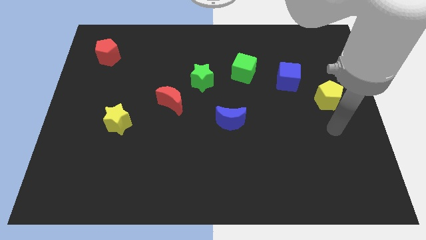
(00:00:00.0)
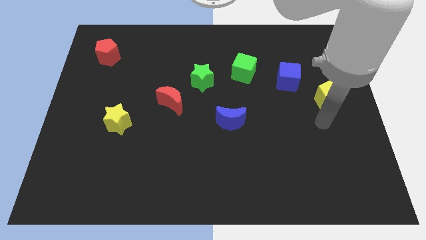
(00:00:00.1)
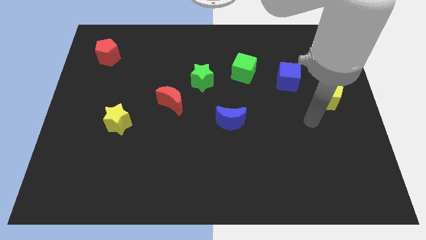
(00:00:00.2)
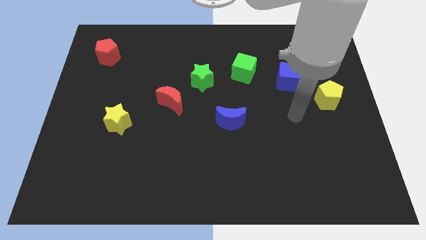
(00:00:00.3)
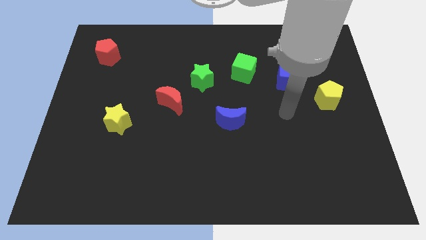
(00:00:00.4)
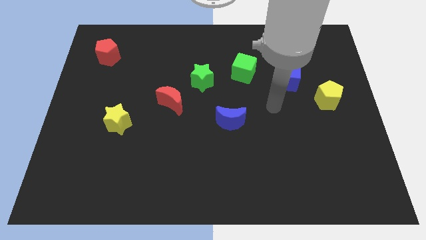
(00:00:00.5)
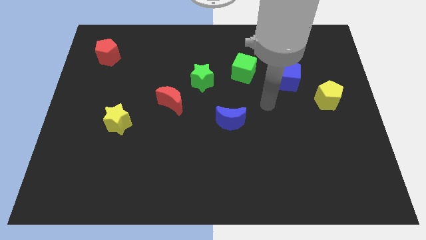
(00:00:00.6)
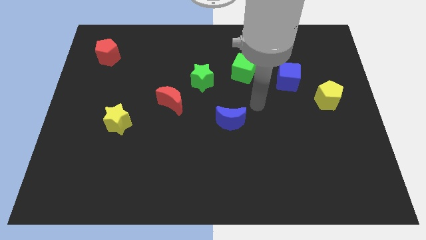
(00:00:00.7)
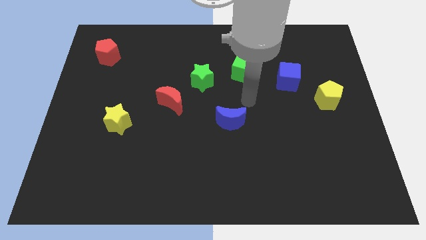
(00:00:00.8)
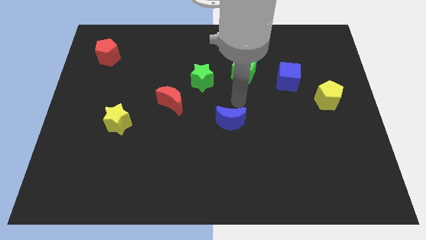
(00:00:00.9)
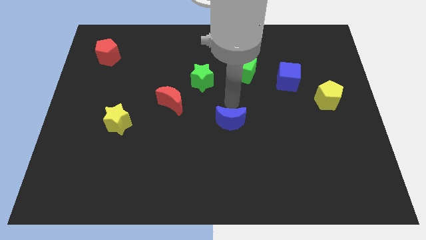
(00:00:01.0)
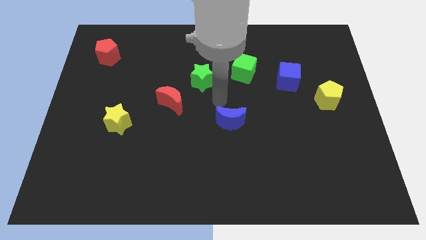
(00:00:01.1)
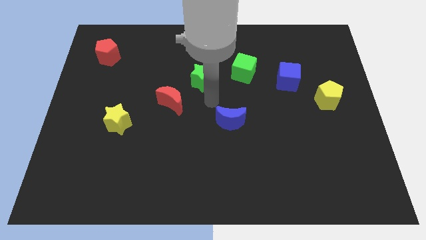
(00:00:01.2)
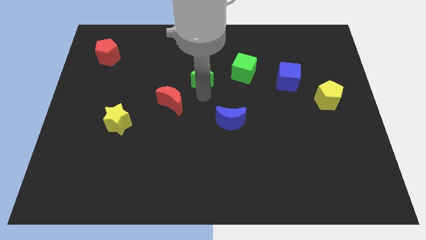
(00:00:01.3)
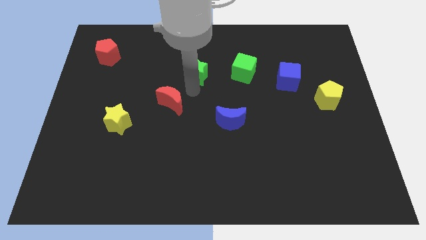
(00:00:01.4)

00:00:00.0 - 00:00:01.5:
separate the red moon from the green star

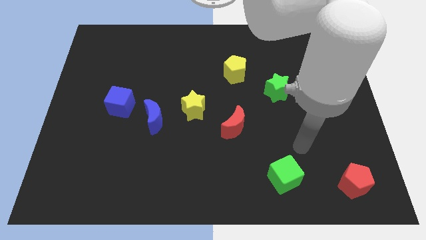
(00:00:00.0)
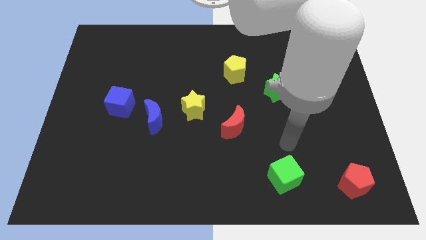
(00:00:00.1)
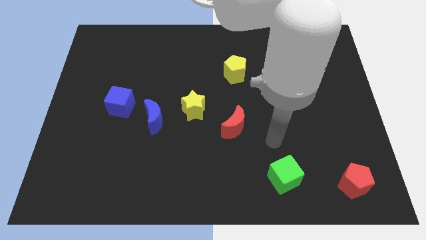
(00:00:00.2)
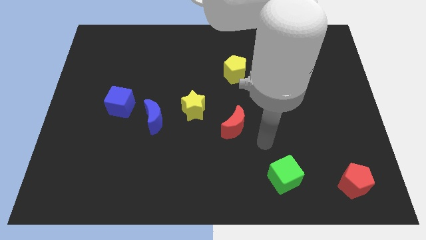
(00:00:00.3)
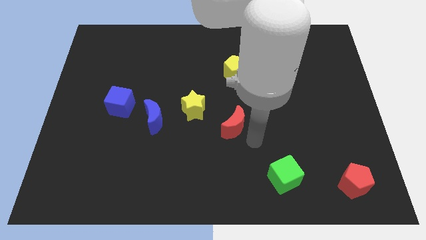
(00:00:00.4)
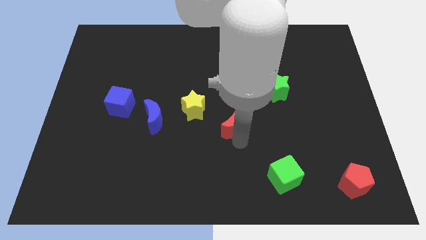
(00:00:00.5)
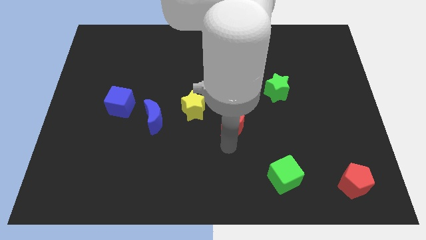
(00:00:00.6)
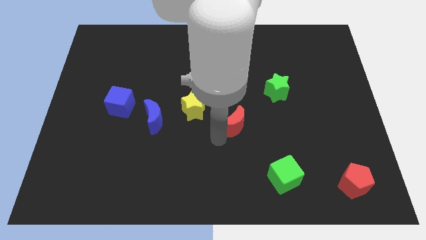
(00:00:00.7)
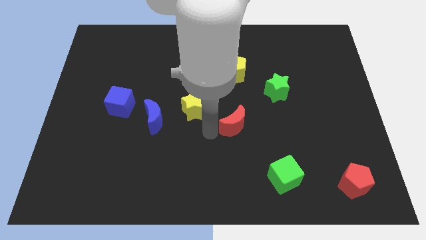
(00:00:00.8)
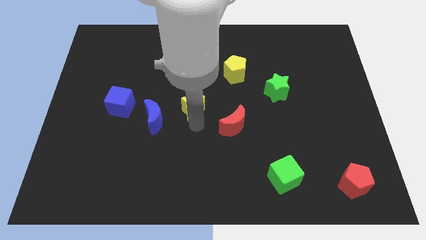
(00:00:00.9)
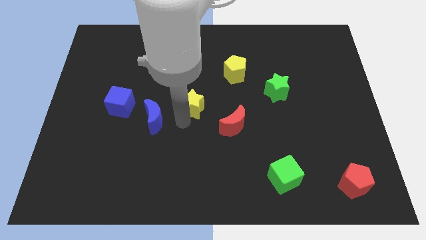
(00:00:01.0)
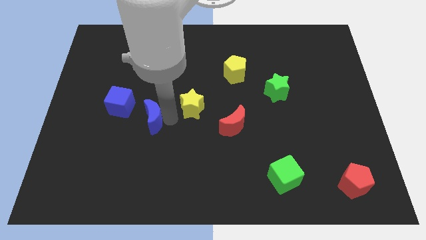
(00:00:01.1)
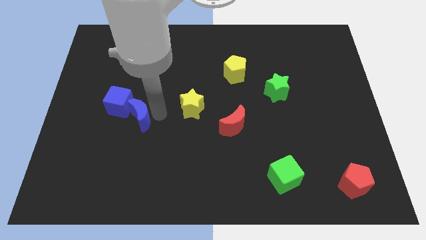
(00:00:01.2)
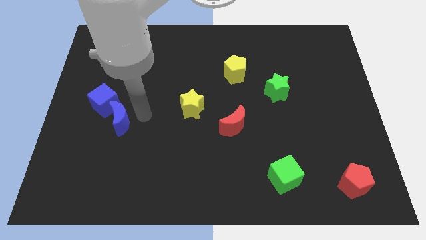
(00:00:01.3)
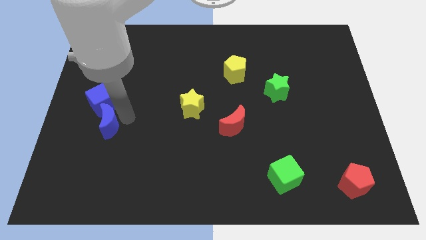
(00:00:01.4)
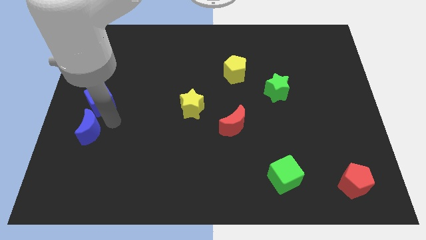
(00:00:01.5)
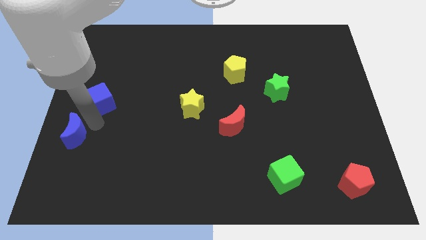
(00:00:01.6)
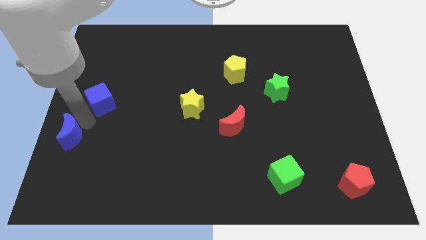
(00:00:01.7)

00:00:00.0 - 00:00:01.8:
pull the blue cube apart from the blue moon

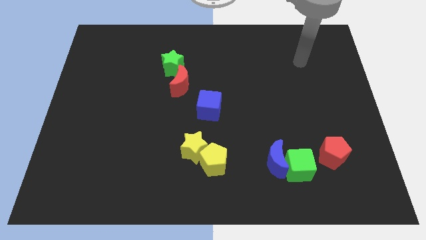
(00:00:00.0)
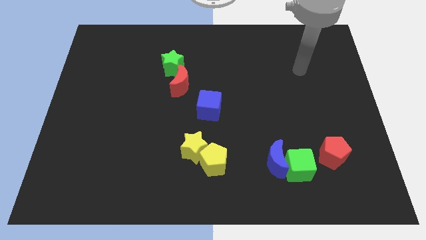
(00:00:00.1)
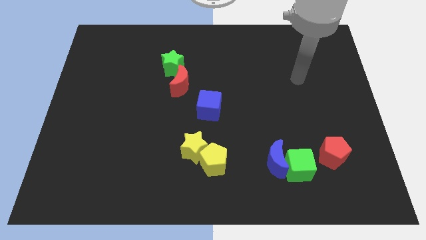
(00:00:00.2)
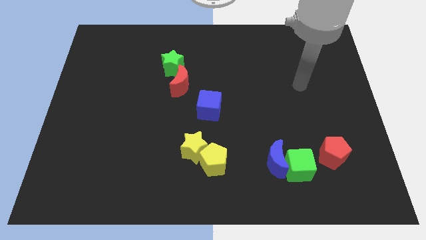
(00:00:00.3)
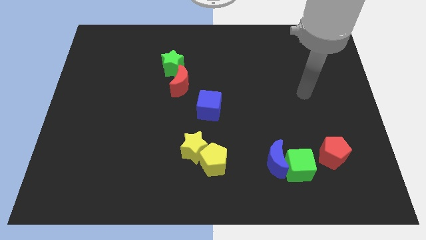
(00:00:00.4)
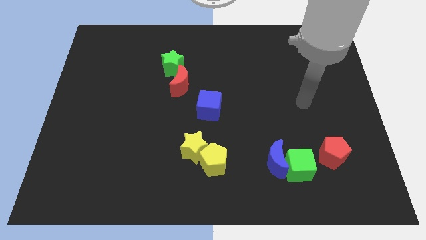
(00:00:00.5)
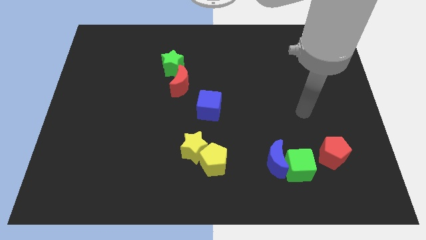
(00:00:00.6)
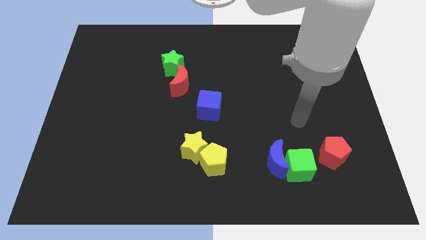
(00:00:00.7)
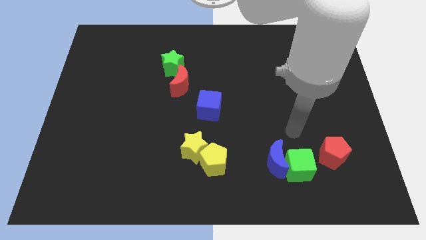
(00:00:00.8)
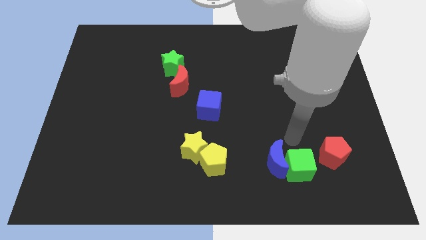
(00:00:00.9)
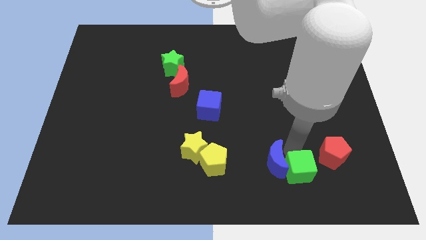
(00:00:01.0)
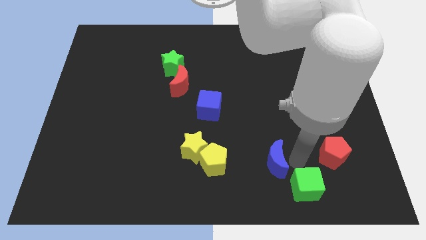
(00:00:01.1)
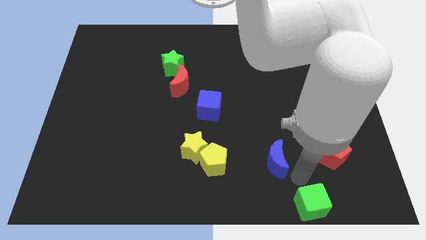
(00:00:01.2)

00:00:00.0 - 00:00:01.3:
separate the blue moon from the green cube

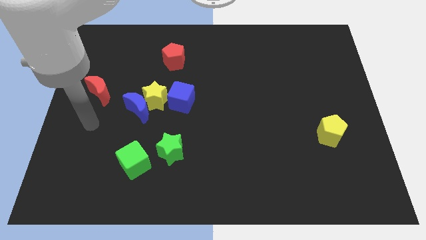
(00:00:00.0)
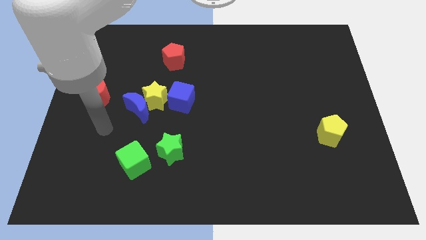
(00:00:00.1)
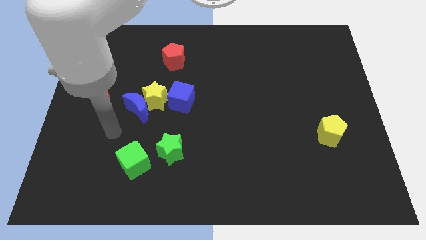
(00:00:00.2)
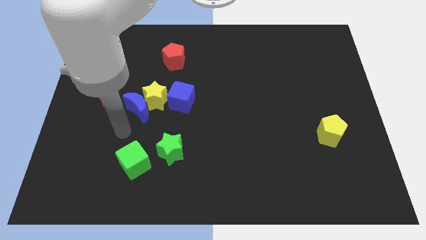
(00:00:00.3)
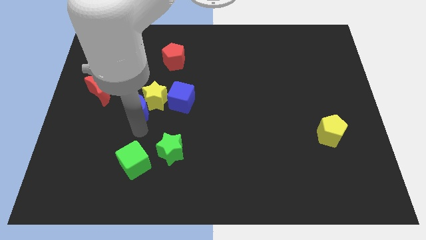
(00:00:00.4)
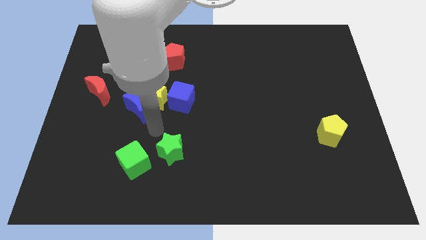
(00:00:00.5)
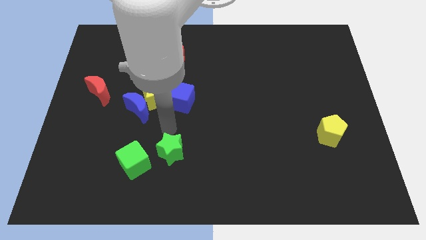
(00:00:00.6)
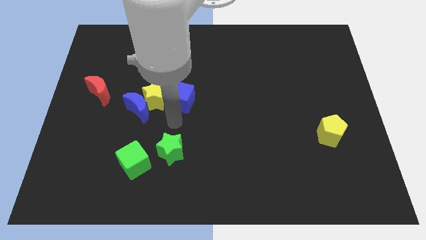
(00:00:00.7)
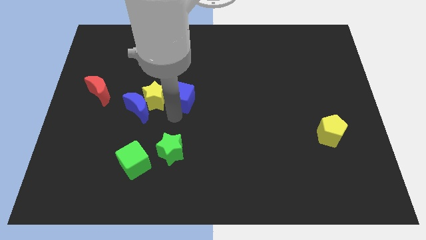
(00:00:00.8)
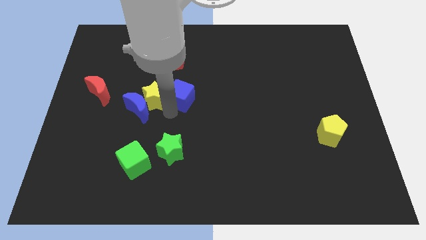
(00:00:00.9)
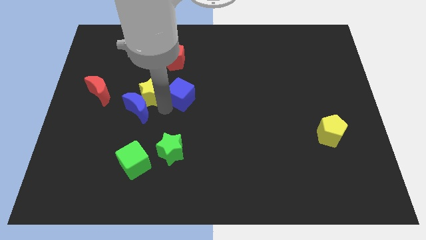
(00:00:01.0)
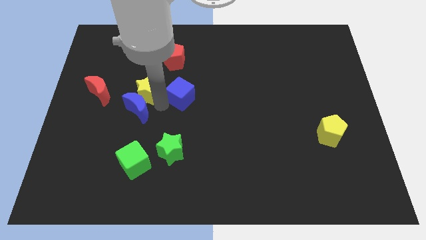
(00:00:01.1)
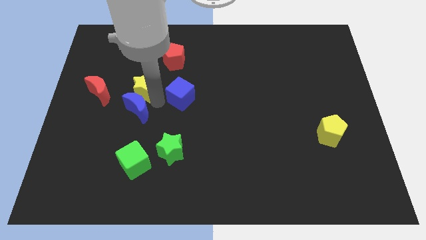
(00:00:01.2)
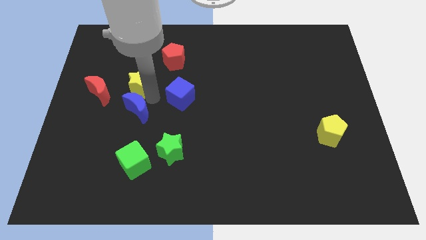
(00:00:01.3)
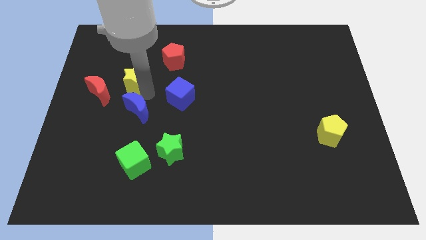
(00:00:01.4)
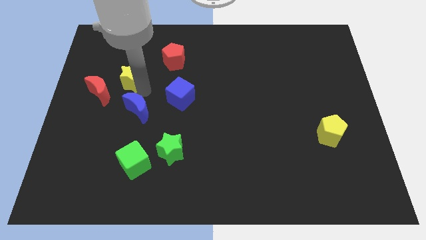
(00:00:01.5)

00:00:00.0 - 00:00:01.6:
pull the yellow star apart from the blue moon and blue cube

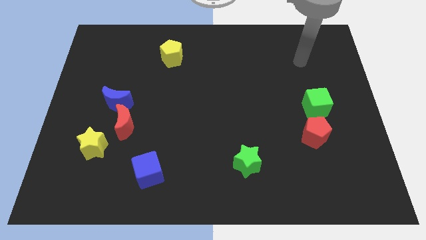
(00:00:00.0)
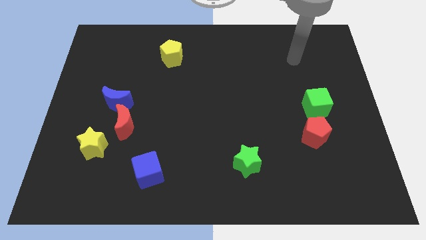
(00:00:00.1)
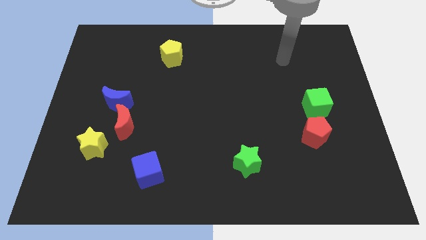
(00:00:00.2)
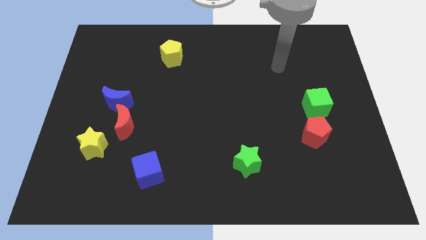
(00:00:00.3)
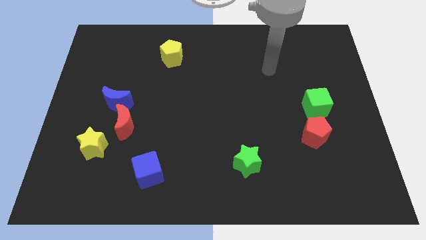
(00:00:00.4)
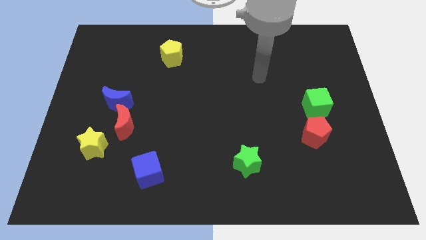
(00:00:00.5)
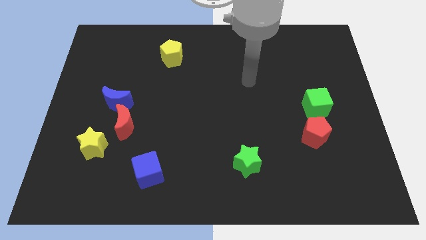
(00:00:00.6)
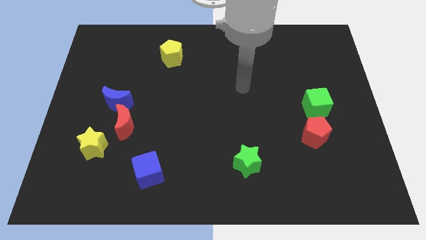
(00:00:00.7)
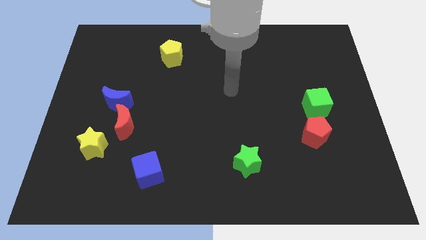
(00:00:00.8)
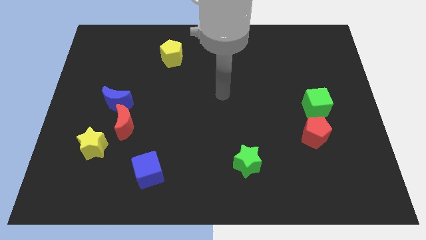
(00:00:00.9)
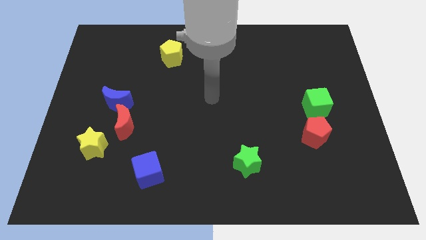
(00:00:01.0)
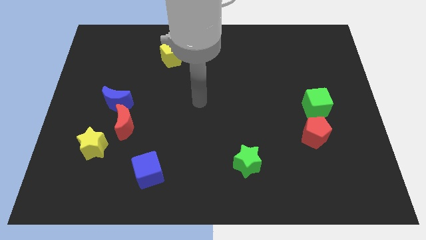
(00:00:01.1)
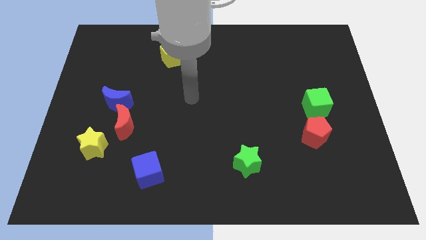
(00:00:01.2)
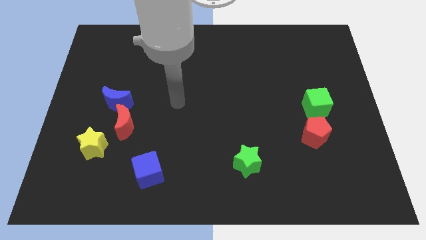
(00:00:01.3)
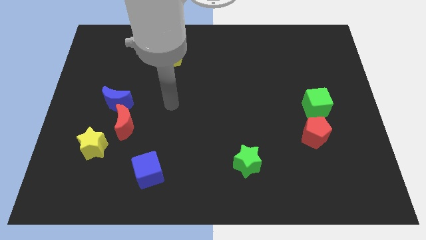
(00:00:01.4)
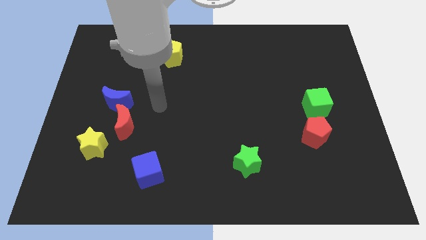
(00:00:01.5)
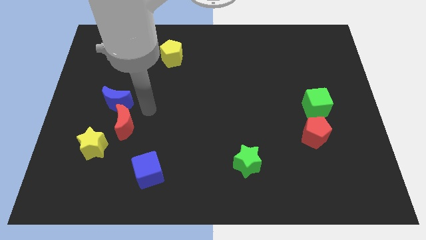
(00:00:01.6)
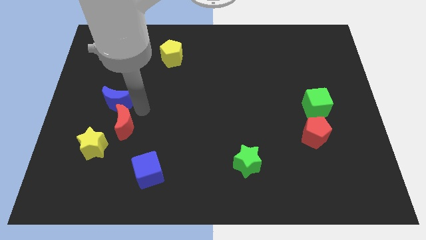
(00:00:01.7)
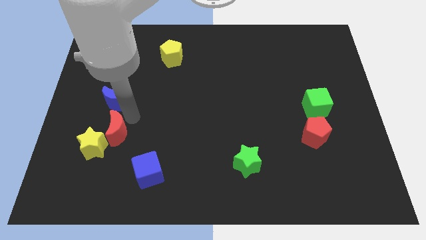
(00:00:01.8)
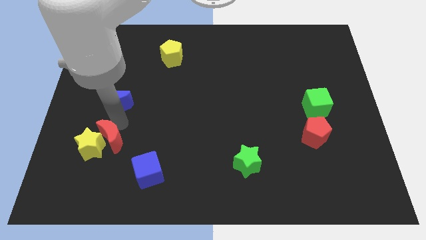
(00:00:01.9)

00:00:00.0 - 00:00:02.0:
pull the blue moon apart from the red moon

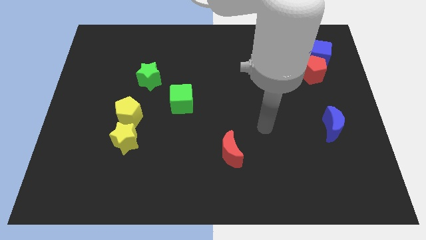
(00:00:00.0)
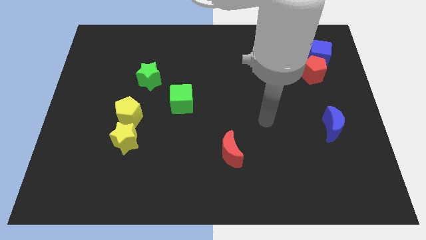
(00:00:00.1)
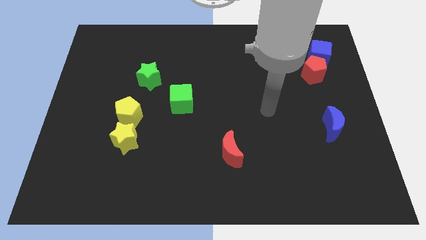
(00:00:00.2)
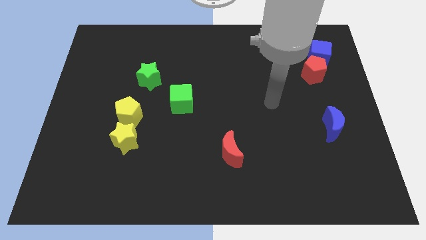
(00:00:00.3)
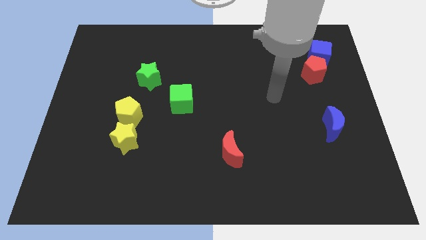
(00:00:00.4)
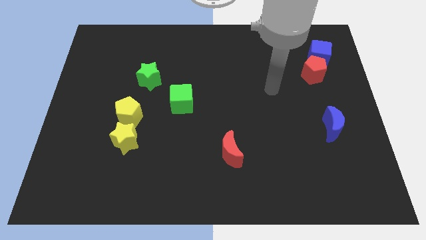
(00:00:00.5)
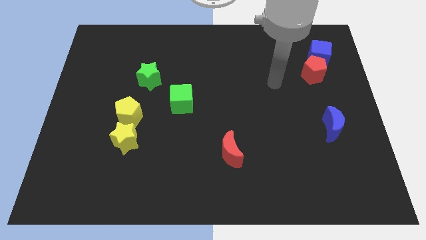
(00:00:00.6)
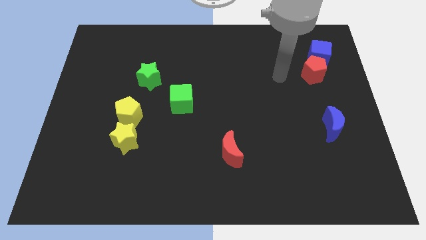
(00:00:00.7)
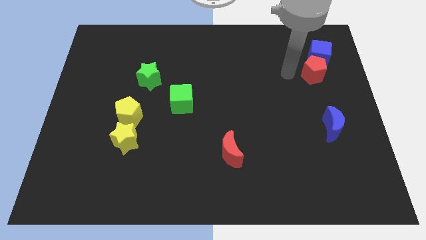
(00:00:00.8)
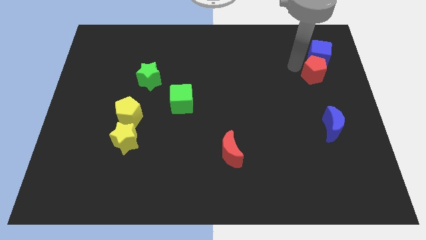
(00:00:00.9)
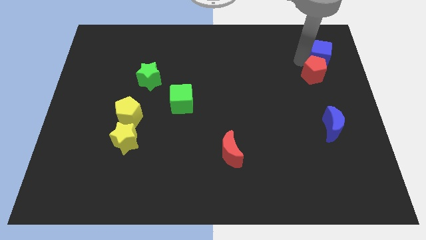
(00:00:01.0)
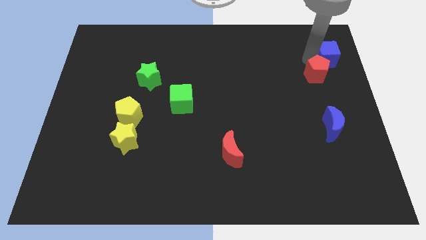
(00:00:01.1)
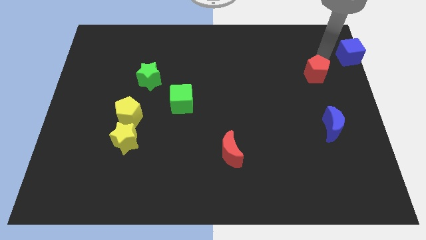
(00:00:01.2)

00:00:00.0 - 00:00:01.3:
move the red pentagon away from the blue cube
